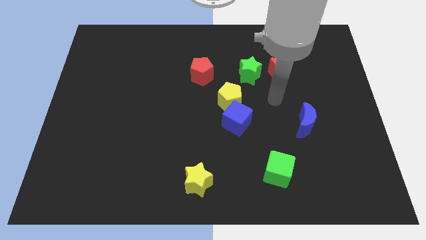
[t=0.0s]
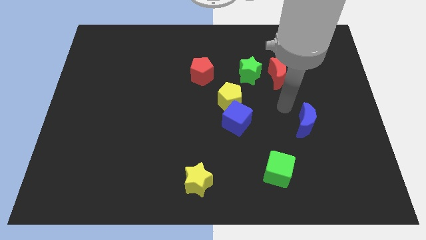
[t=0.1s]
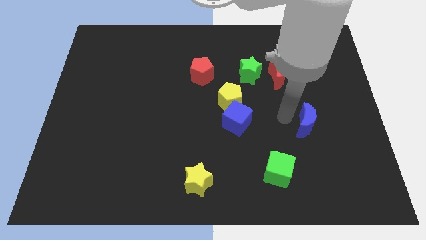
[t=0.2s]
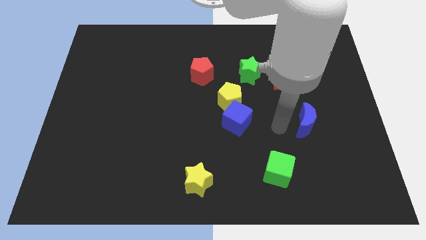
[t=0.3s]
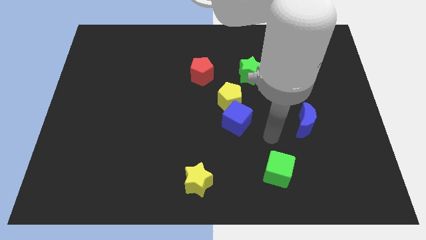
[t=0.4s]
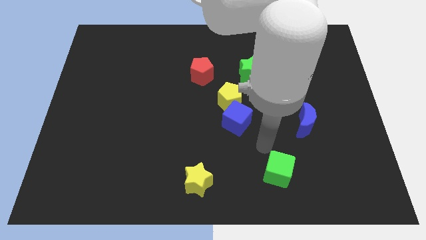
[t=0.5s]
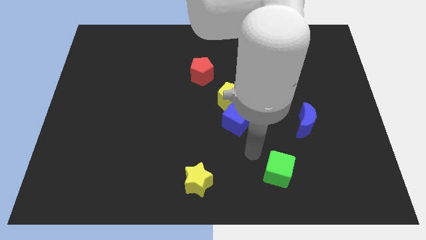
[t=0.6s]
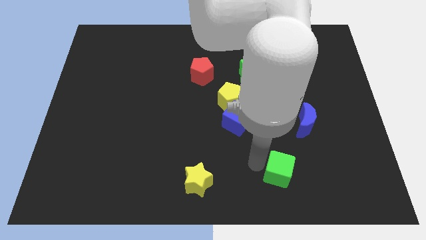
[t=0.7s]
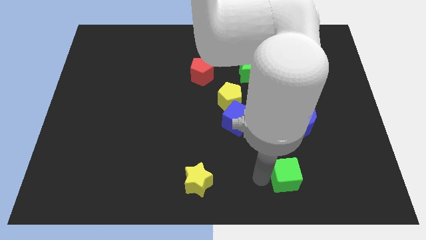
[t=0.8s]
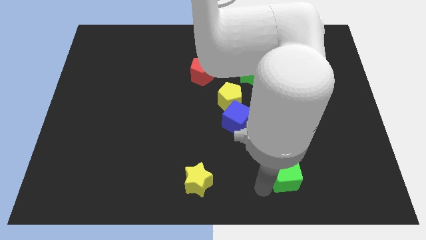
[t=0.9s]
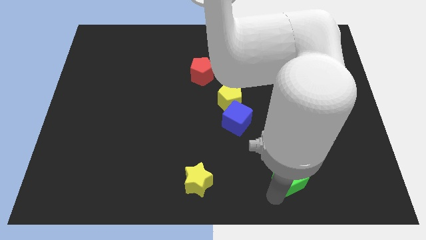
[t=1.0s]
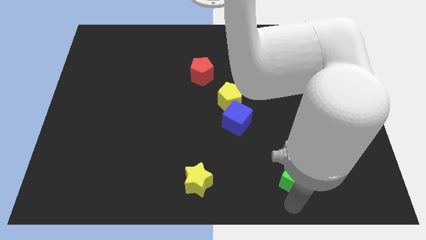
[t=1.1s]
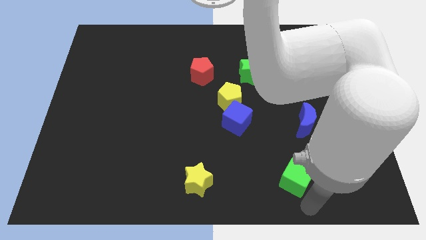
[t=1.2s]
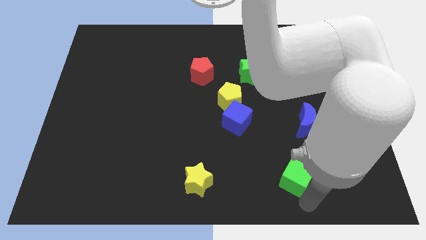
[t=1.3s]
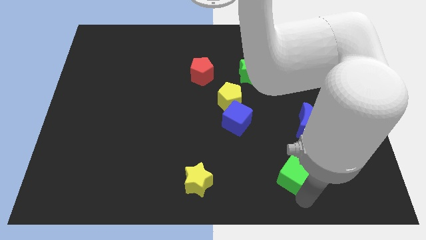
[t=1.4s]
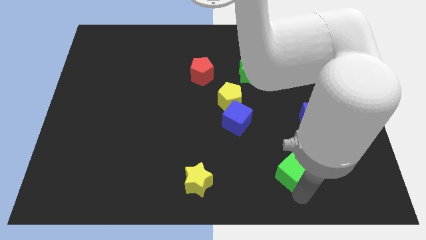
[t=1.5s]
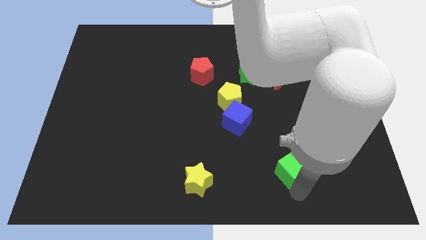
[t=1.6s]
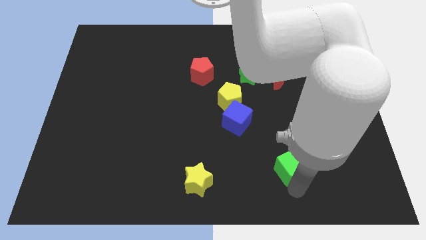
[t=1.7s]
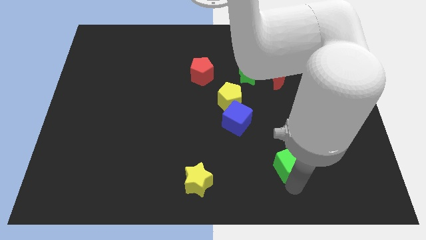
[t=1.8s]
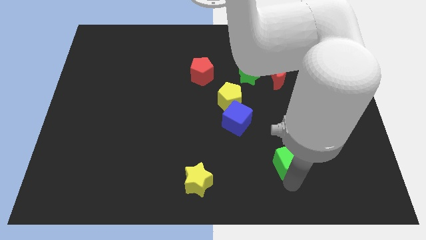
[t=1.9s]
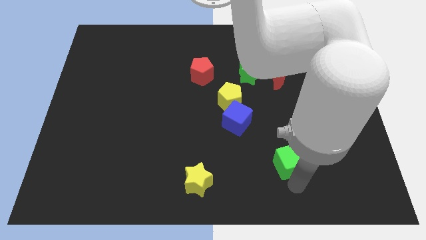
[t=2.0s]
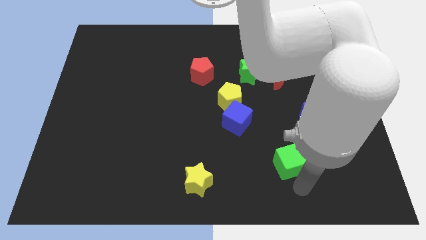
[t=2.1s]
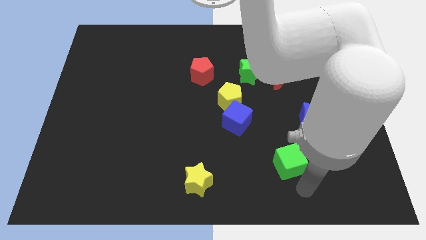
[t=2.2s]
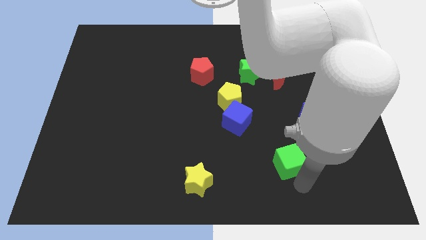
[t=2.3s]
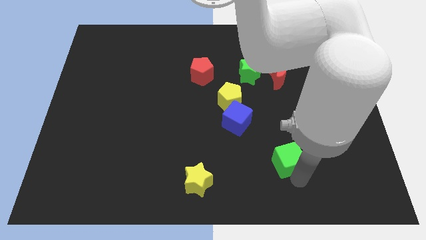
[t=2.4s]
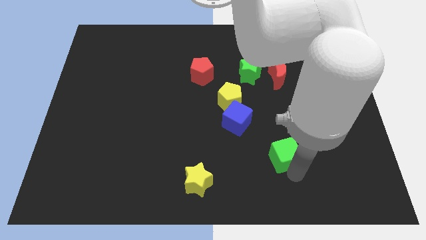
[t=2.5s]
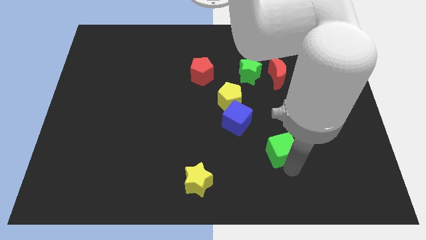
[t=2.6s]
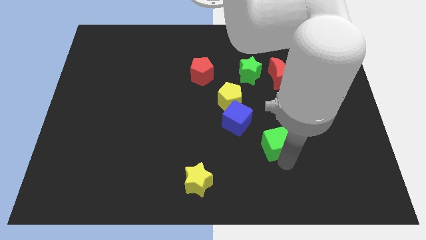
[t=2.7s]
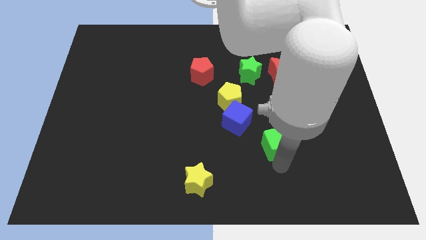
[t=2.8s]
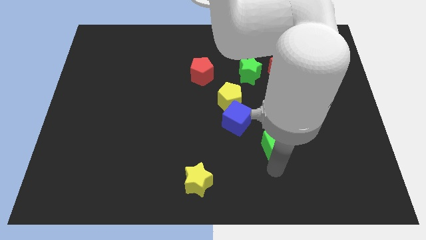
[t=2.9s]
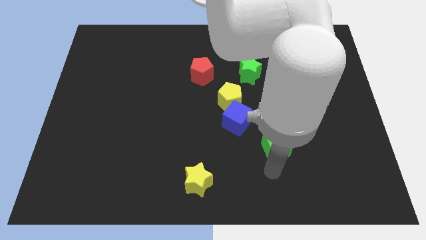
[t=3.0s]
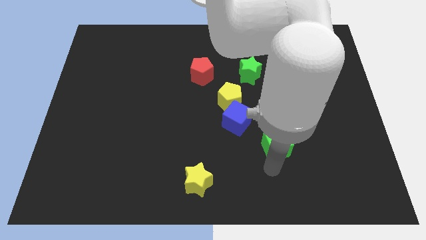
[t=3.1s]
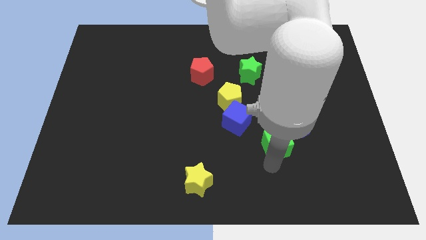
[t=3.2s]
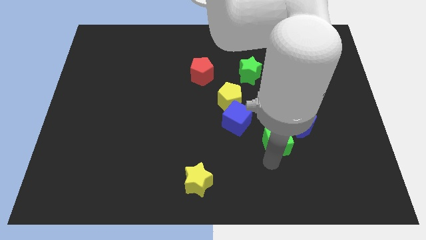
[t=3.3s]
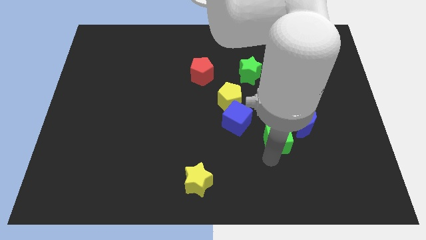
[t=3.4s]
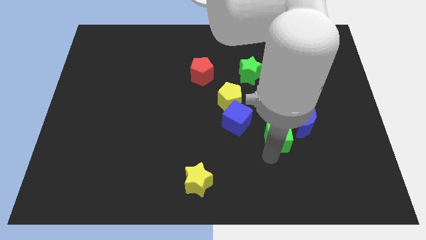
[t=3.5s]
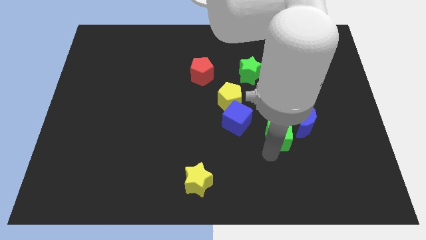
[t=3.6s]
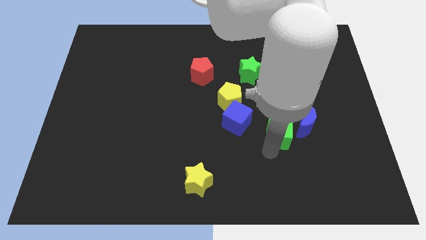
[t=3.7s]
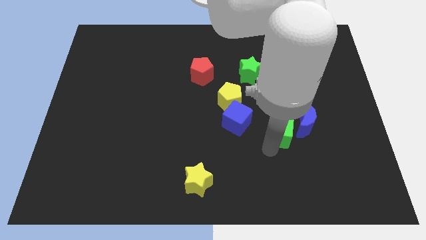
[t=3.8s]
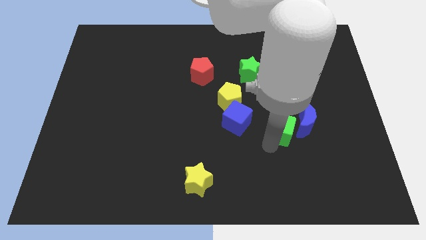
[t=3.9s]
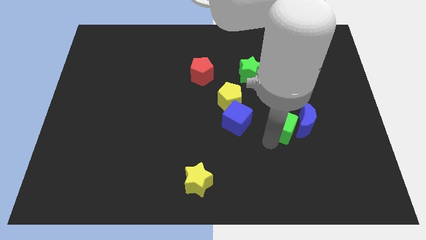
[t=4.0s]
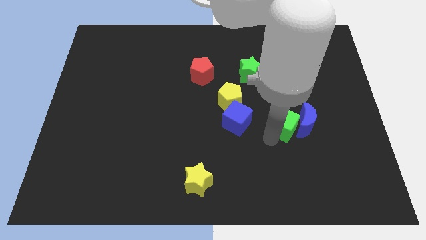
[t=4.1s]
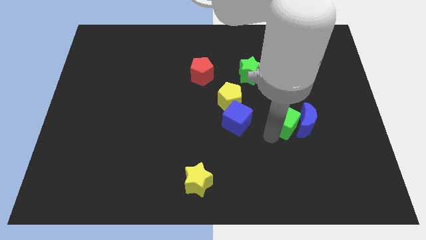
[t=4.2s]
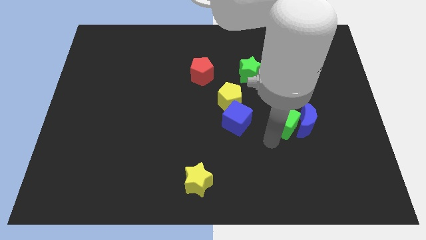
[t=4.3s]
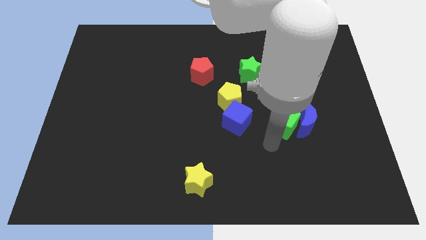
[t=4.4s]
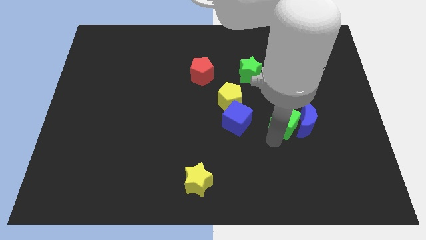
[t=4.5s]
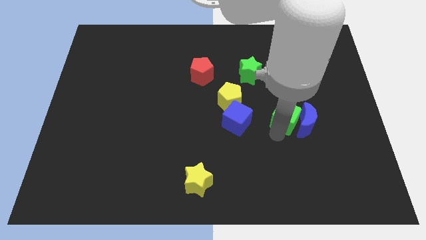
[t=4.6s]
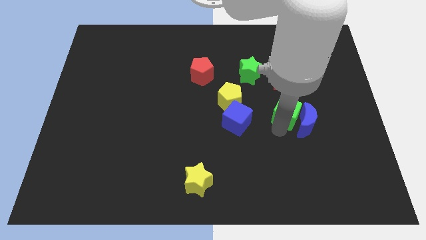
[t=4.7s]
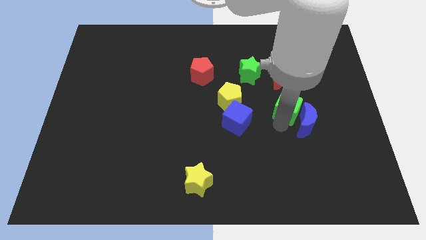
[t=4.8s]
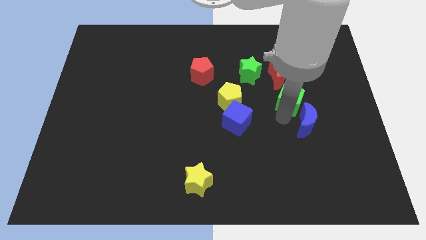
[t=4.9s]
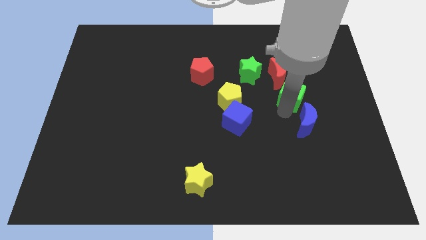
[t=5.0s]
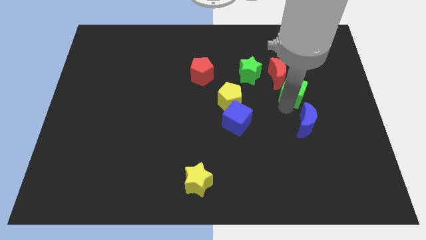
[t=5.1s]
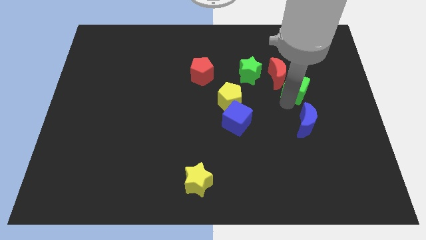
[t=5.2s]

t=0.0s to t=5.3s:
slide the green cube up

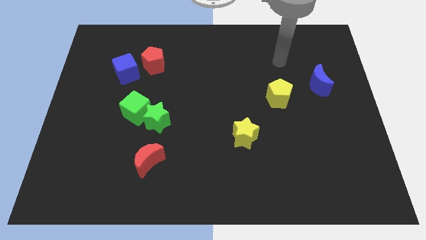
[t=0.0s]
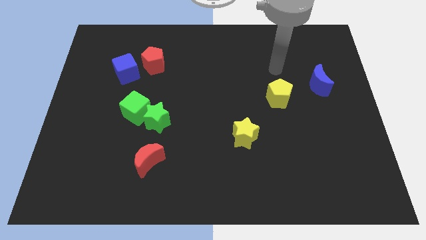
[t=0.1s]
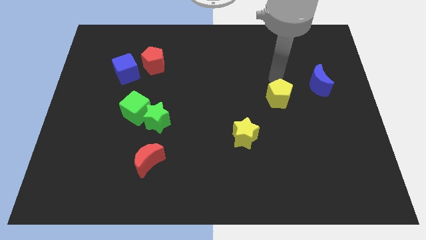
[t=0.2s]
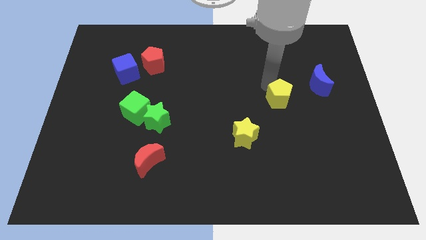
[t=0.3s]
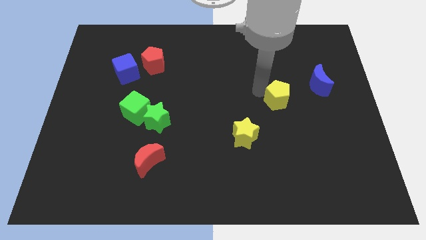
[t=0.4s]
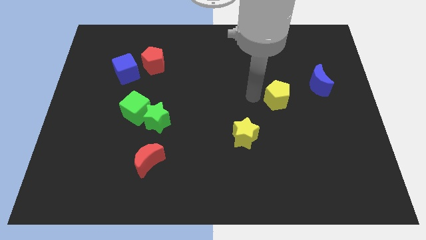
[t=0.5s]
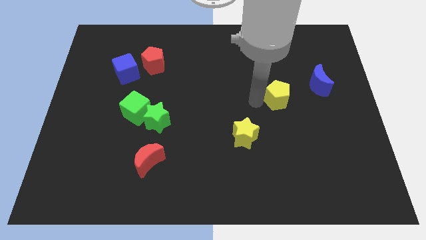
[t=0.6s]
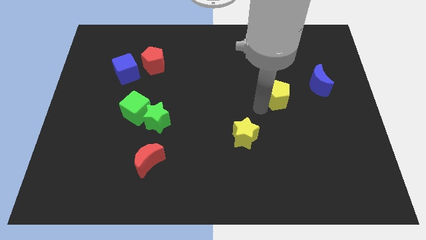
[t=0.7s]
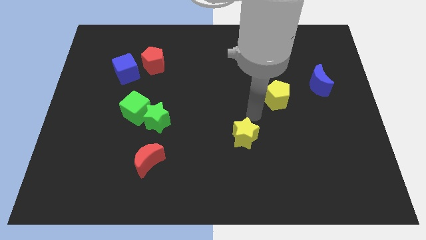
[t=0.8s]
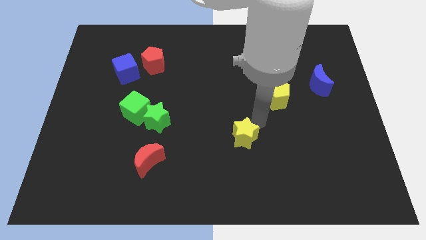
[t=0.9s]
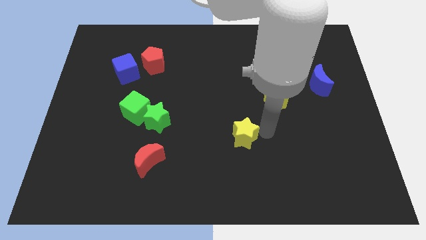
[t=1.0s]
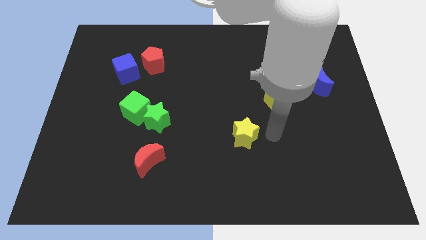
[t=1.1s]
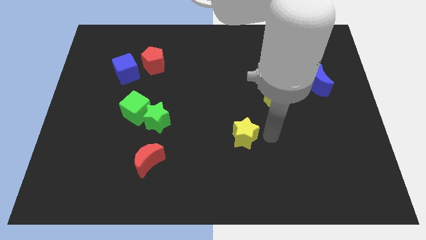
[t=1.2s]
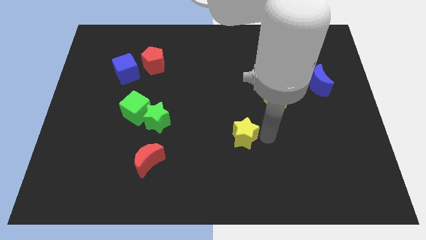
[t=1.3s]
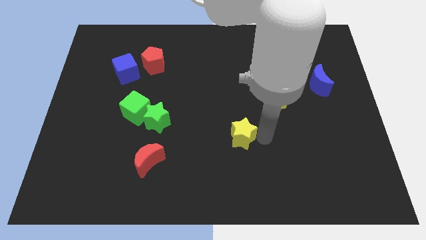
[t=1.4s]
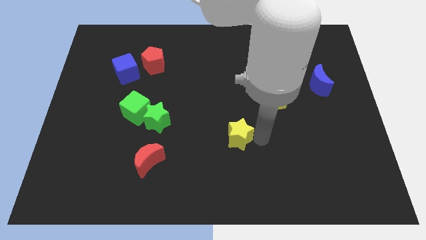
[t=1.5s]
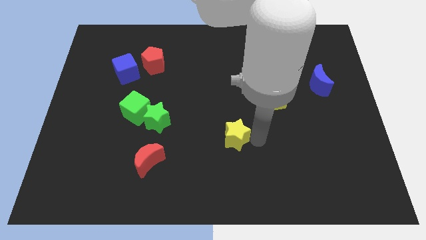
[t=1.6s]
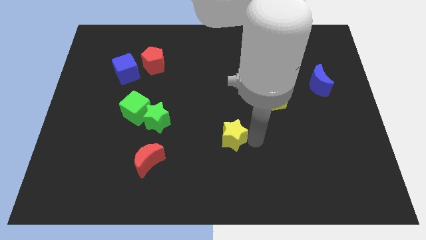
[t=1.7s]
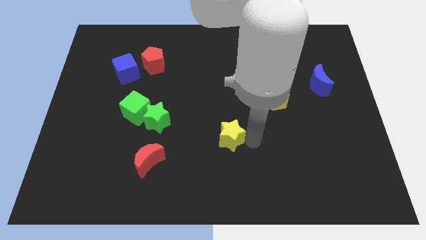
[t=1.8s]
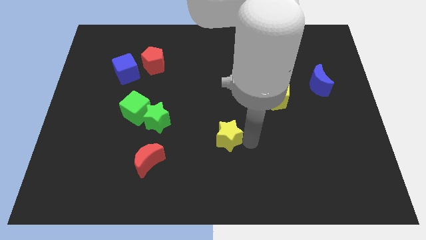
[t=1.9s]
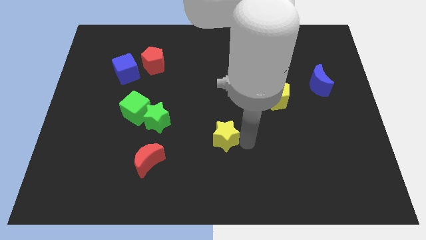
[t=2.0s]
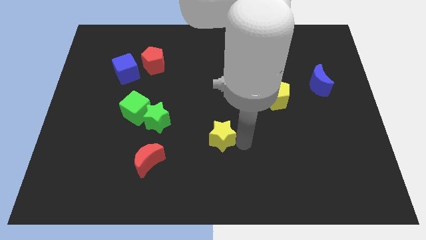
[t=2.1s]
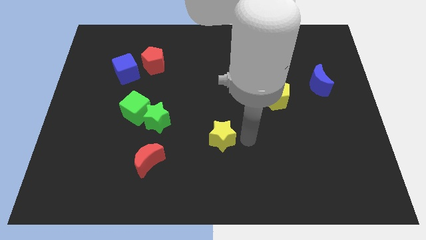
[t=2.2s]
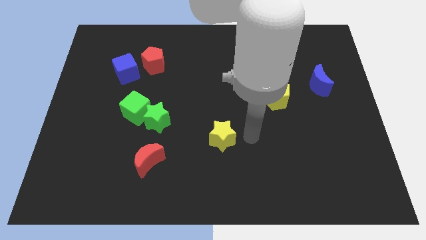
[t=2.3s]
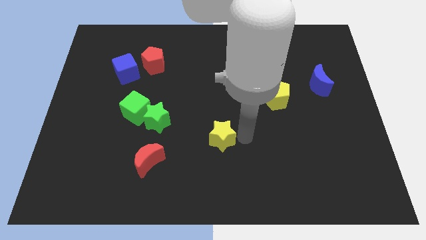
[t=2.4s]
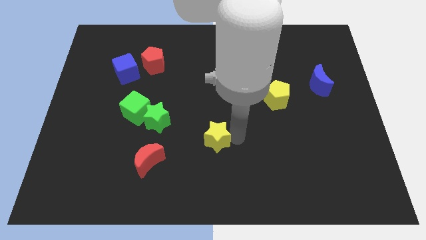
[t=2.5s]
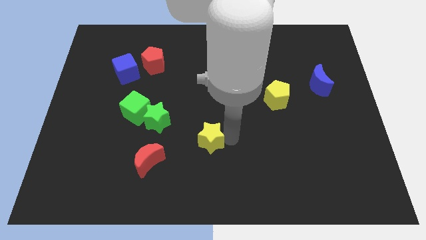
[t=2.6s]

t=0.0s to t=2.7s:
push the yellow star a bit to the left
